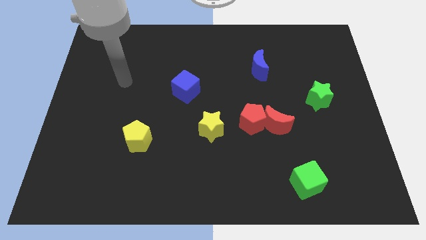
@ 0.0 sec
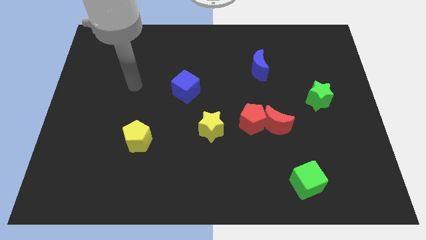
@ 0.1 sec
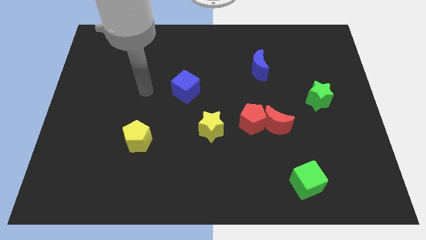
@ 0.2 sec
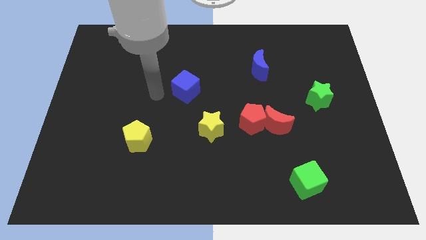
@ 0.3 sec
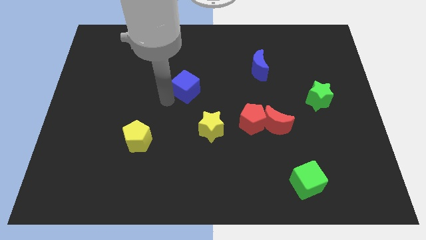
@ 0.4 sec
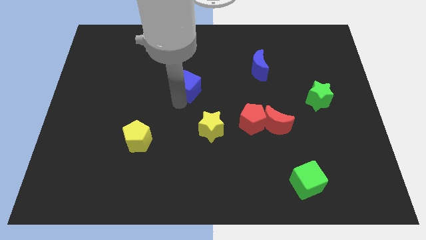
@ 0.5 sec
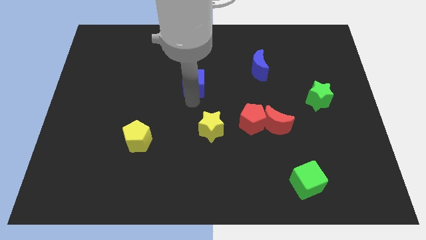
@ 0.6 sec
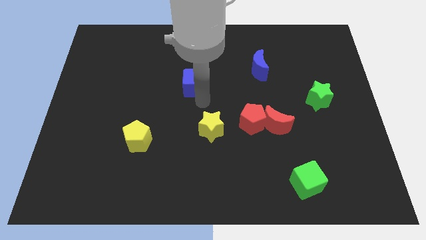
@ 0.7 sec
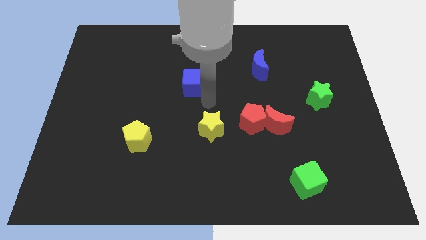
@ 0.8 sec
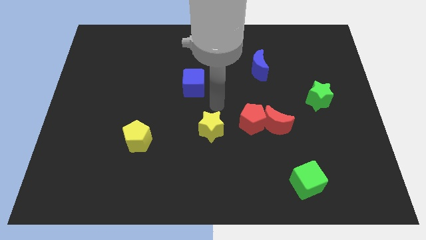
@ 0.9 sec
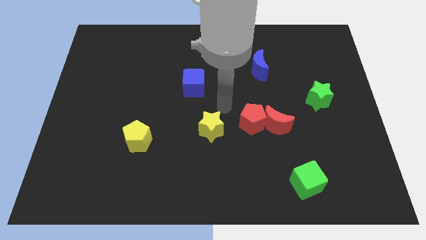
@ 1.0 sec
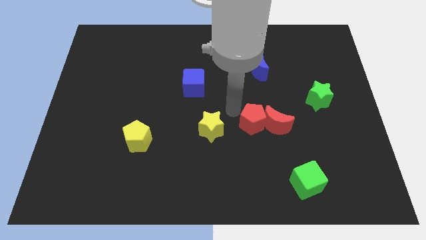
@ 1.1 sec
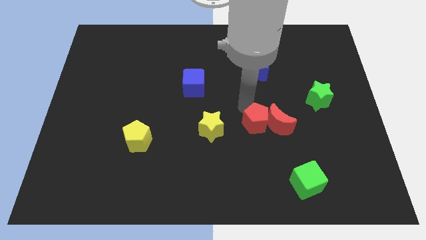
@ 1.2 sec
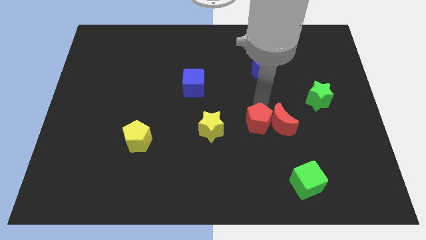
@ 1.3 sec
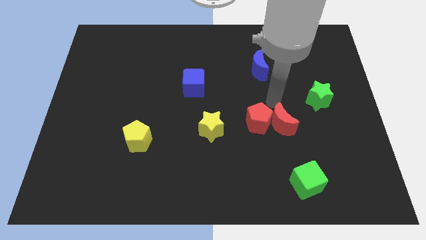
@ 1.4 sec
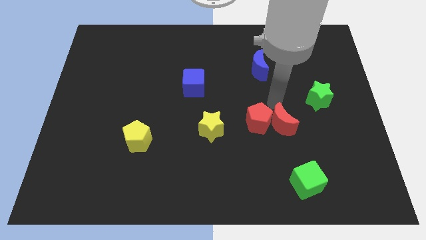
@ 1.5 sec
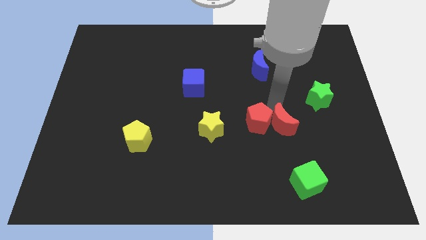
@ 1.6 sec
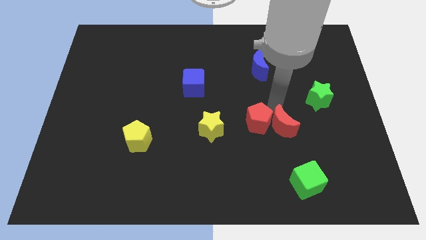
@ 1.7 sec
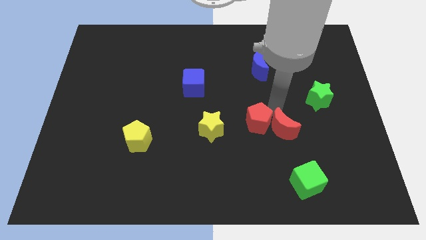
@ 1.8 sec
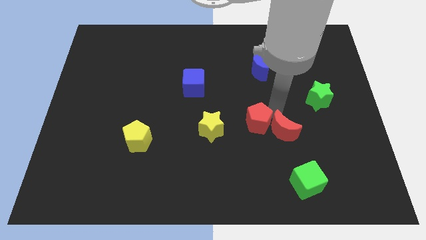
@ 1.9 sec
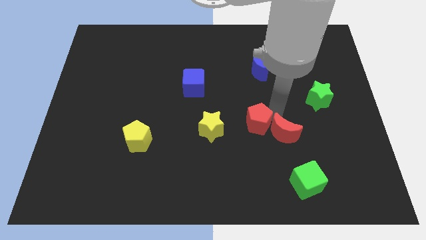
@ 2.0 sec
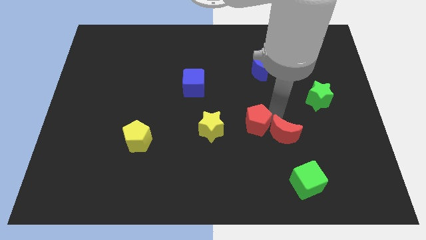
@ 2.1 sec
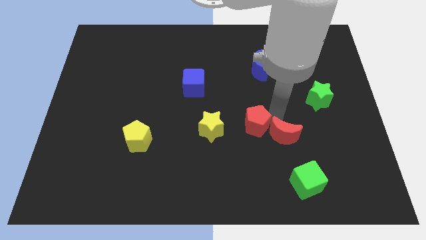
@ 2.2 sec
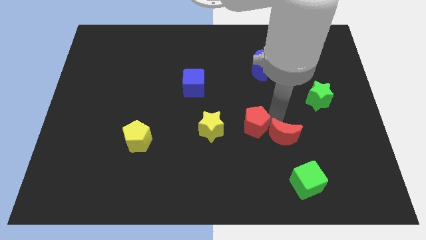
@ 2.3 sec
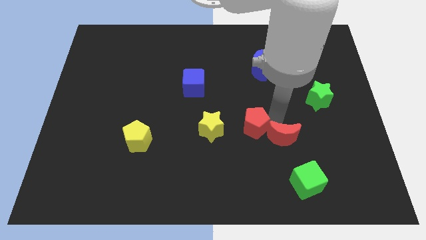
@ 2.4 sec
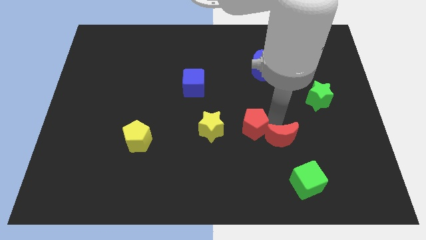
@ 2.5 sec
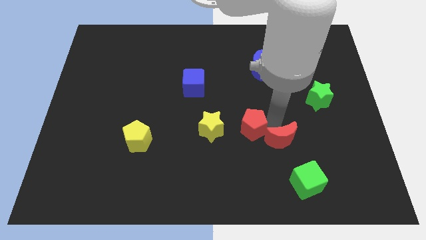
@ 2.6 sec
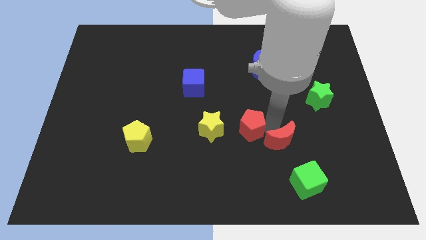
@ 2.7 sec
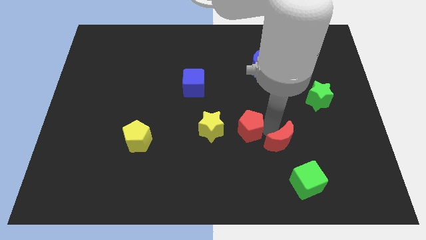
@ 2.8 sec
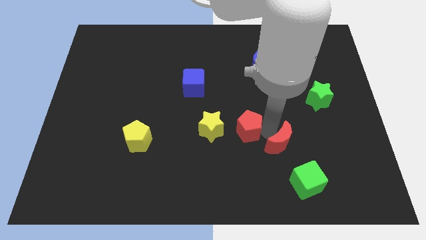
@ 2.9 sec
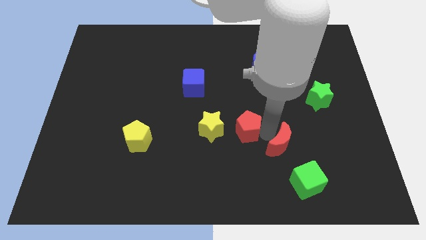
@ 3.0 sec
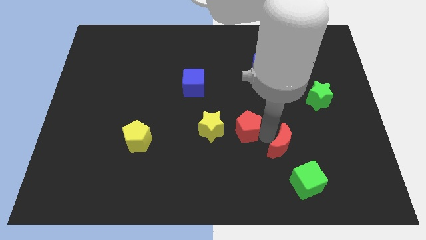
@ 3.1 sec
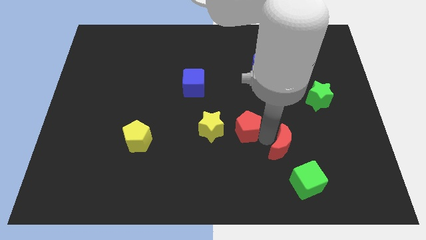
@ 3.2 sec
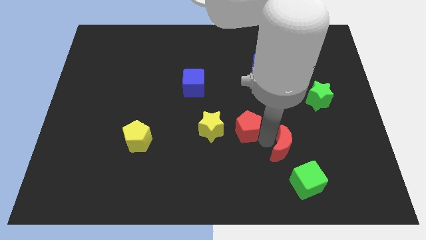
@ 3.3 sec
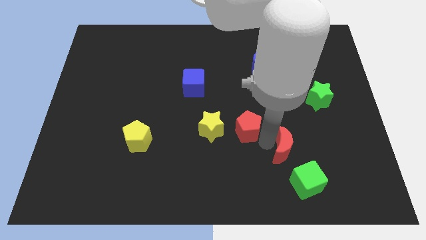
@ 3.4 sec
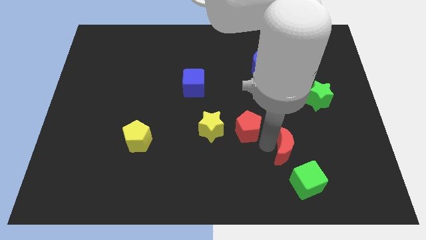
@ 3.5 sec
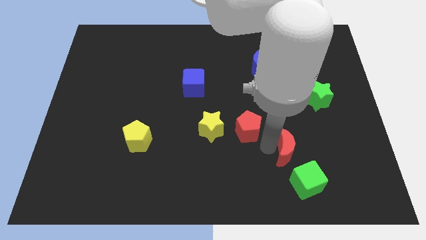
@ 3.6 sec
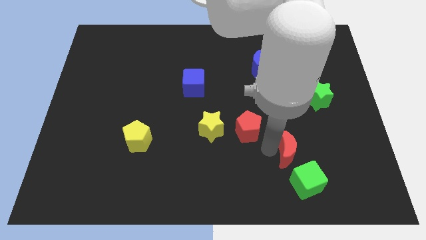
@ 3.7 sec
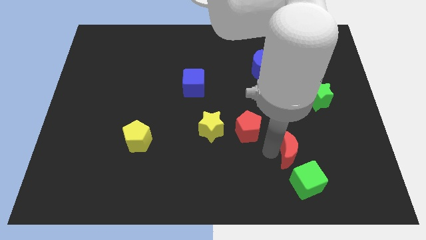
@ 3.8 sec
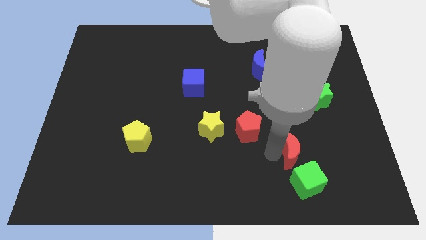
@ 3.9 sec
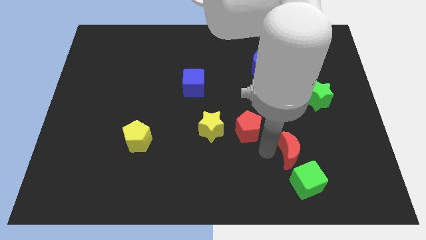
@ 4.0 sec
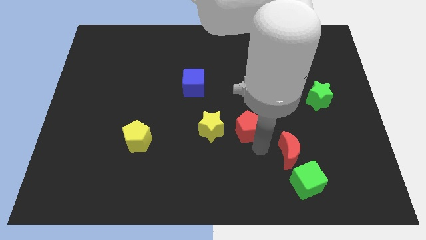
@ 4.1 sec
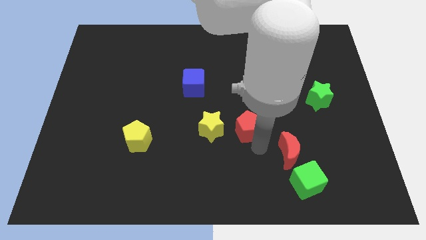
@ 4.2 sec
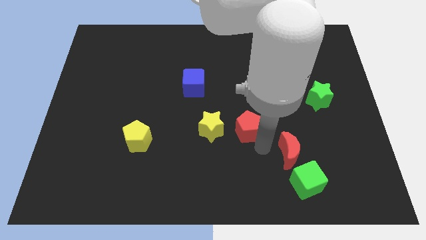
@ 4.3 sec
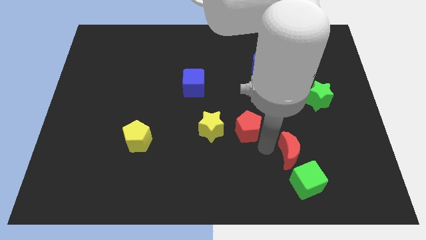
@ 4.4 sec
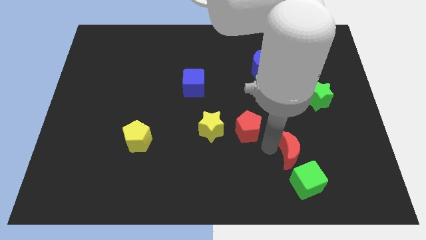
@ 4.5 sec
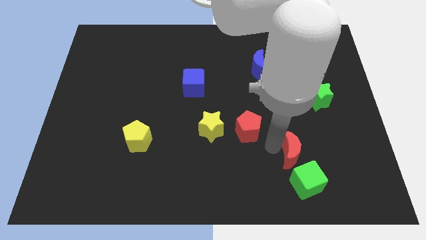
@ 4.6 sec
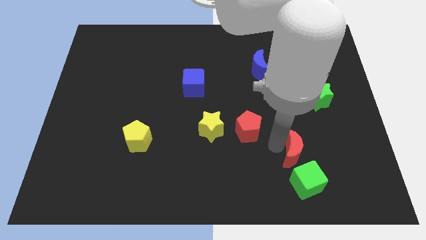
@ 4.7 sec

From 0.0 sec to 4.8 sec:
push the red moon slightly downwards and then right

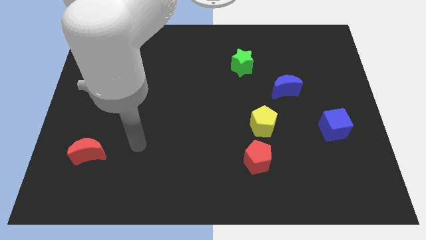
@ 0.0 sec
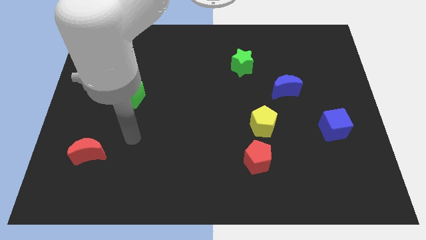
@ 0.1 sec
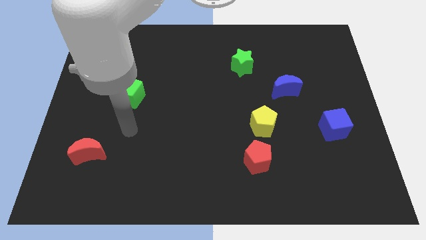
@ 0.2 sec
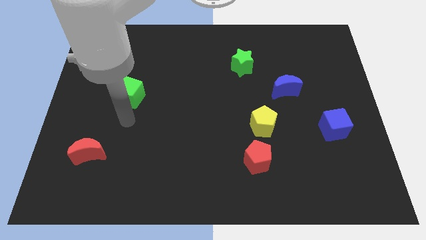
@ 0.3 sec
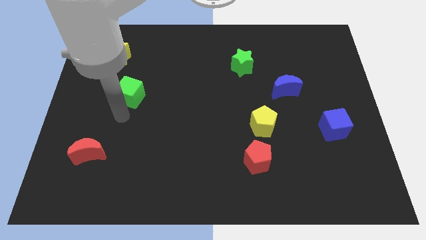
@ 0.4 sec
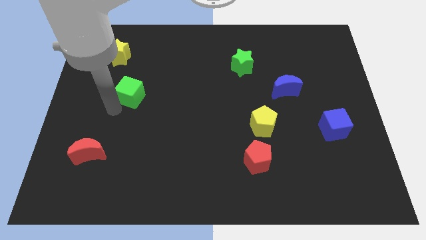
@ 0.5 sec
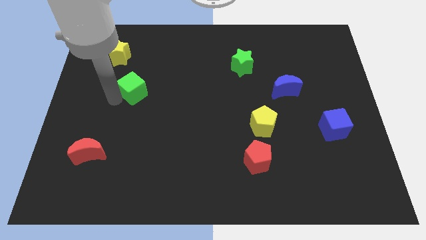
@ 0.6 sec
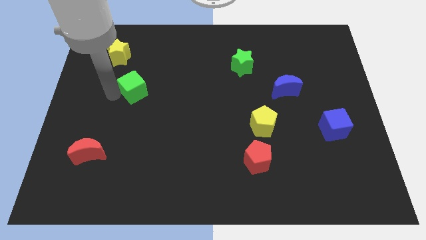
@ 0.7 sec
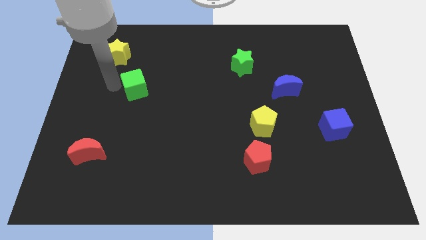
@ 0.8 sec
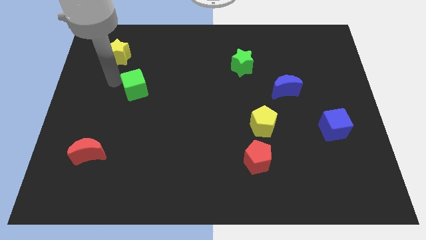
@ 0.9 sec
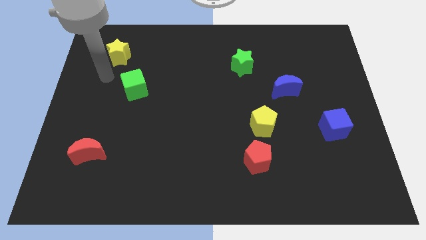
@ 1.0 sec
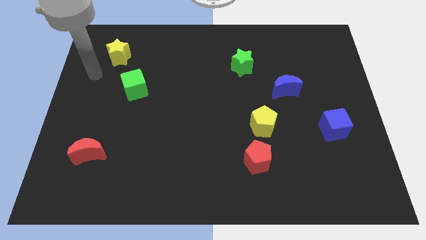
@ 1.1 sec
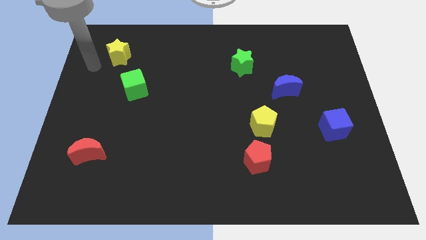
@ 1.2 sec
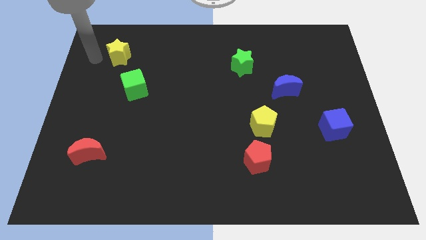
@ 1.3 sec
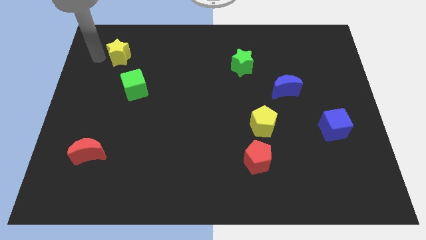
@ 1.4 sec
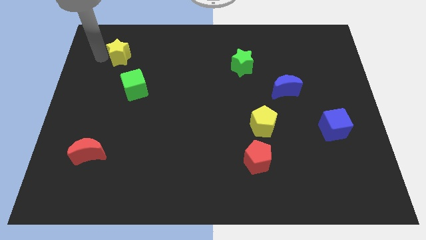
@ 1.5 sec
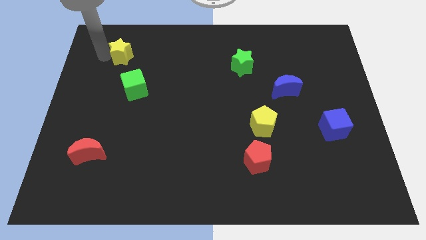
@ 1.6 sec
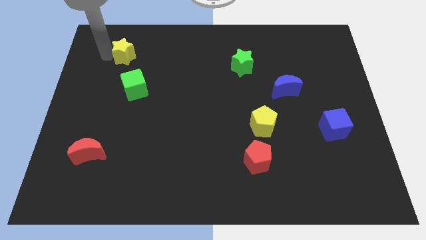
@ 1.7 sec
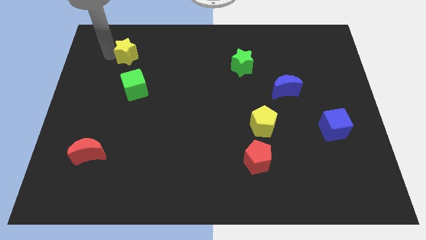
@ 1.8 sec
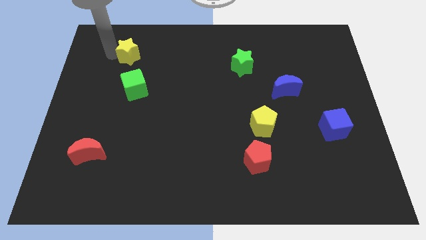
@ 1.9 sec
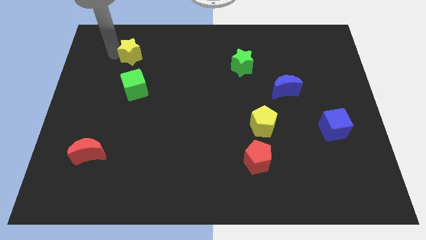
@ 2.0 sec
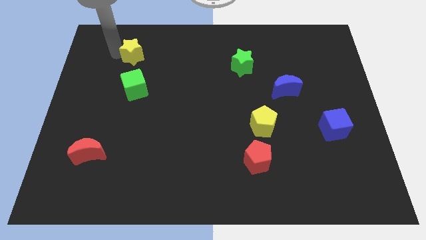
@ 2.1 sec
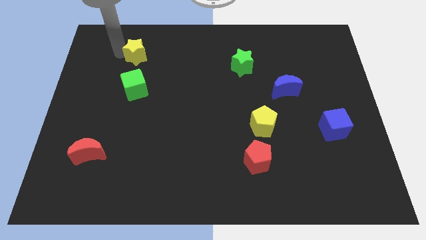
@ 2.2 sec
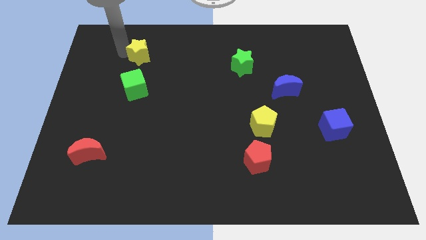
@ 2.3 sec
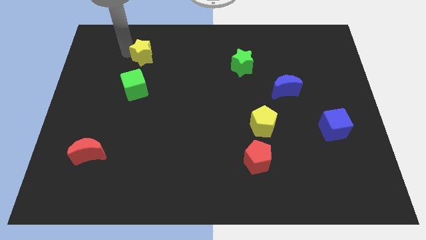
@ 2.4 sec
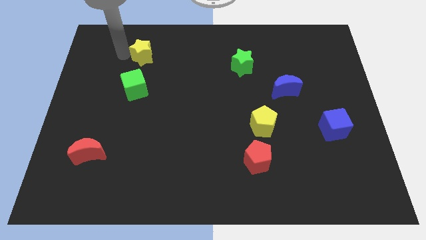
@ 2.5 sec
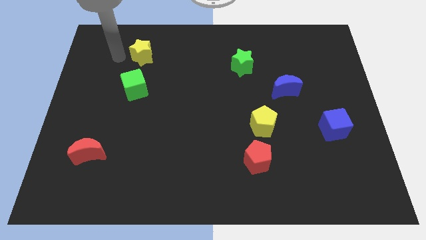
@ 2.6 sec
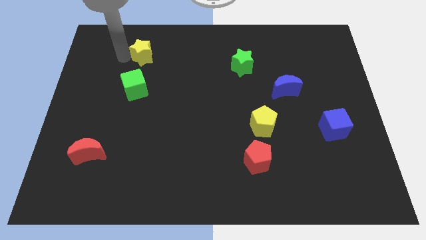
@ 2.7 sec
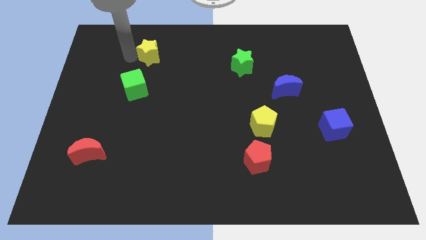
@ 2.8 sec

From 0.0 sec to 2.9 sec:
slightly push the yellow star right
